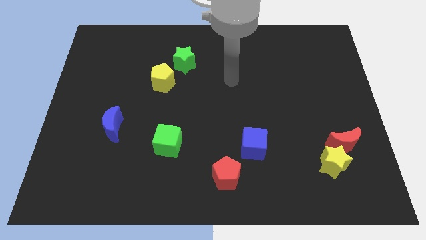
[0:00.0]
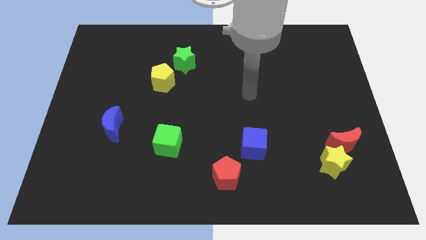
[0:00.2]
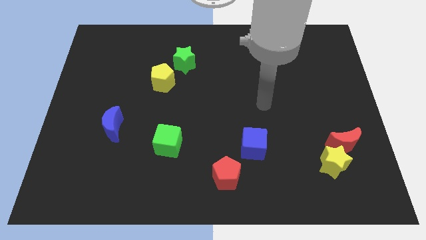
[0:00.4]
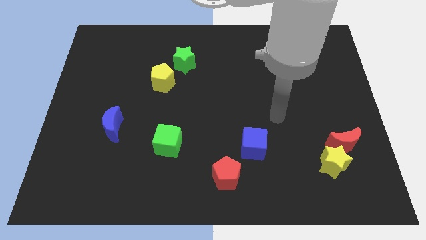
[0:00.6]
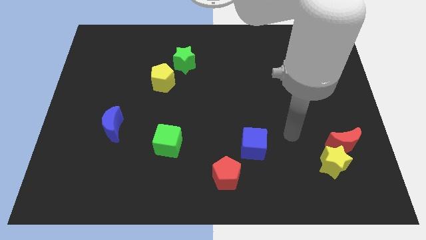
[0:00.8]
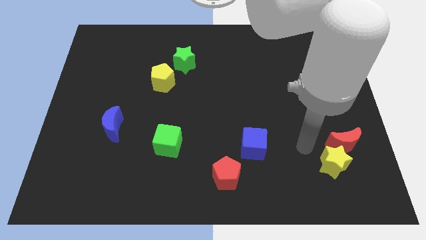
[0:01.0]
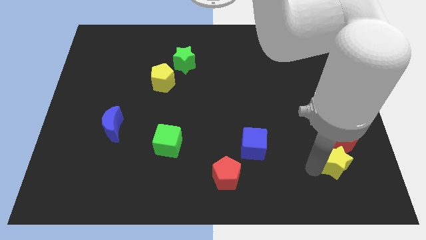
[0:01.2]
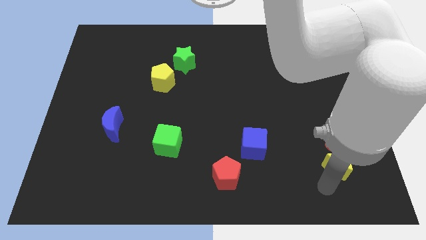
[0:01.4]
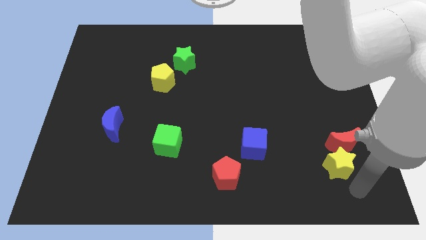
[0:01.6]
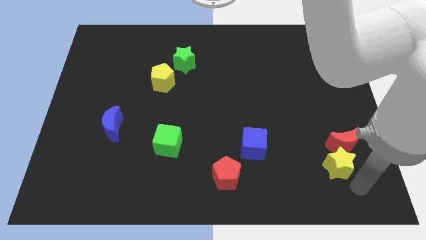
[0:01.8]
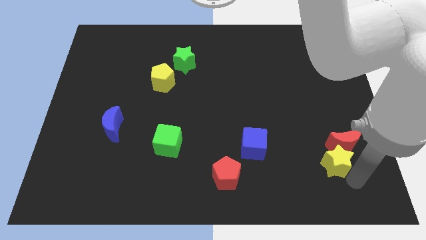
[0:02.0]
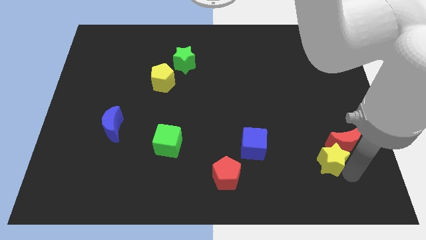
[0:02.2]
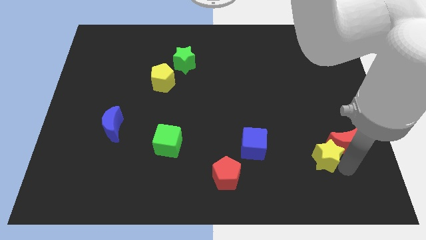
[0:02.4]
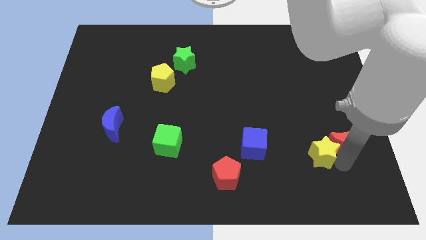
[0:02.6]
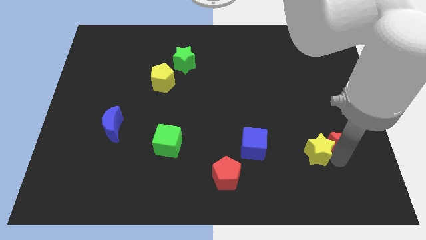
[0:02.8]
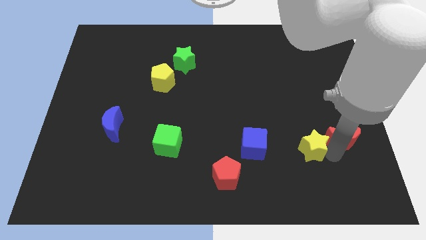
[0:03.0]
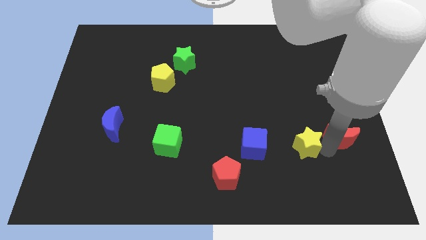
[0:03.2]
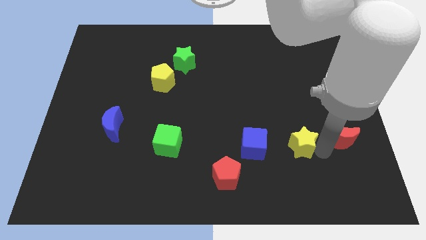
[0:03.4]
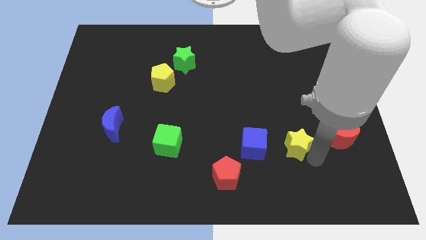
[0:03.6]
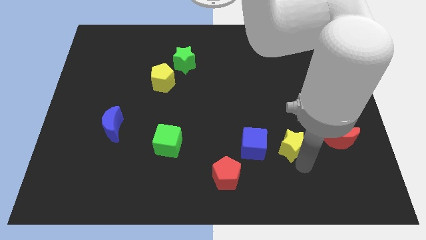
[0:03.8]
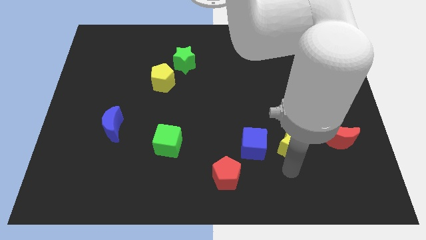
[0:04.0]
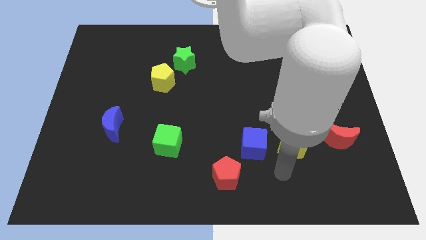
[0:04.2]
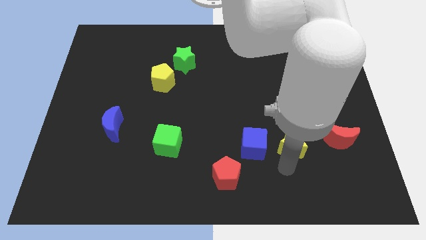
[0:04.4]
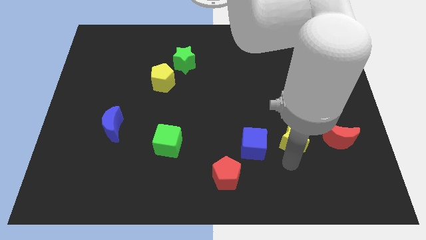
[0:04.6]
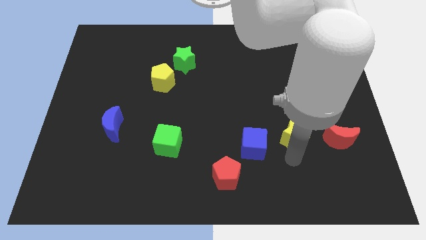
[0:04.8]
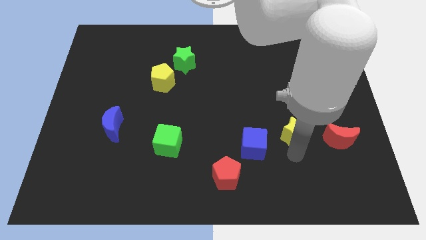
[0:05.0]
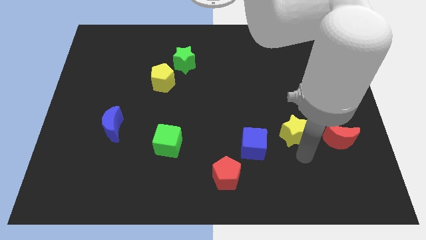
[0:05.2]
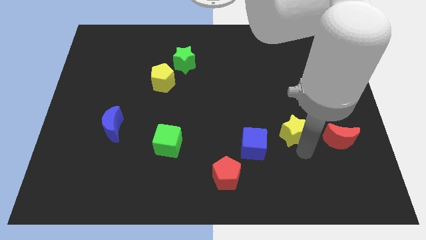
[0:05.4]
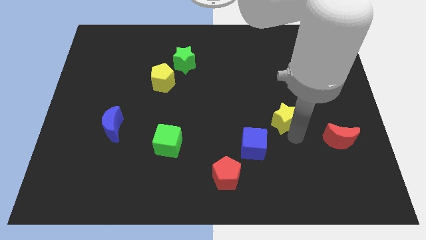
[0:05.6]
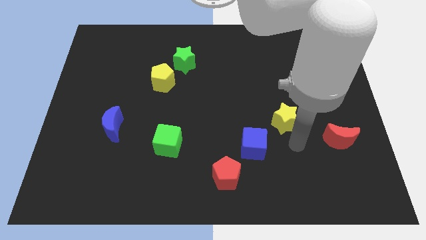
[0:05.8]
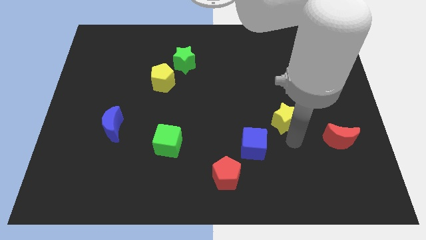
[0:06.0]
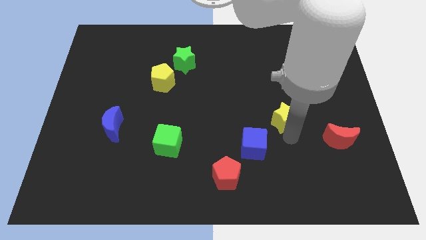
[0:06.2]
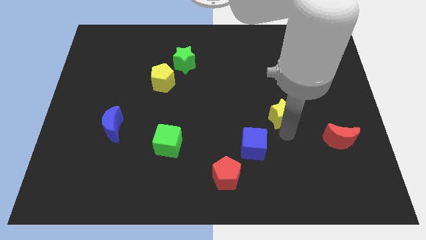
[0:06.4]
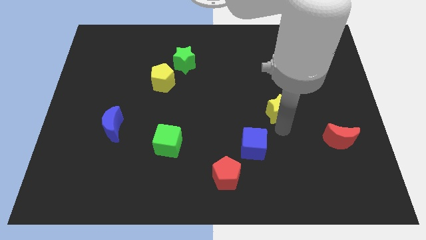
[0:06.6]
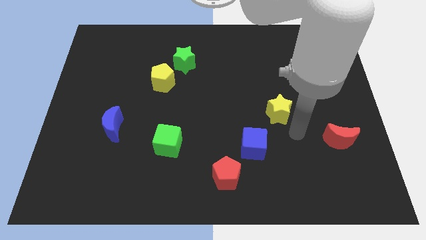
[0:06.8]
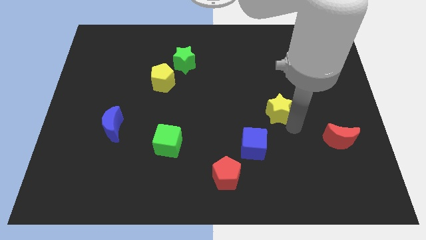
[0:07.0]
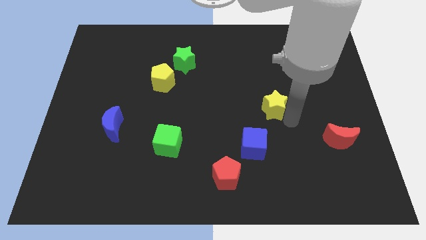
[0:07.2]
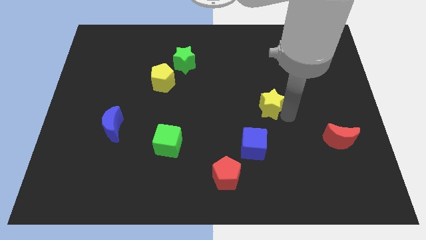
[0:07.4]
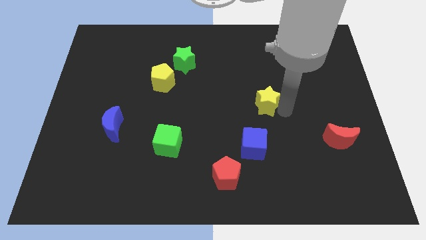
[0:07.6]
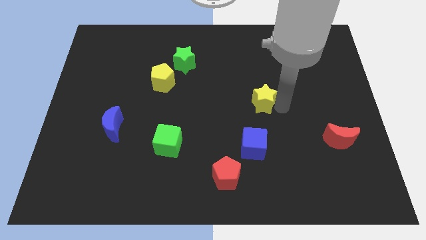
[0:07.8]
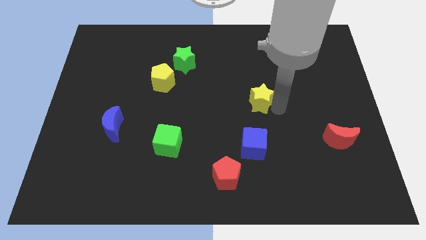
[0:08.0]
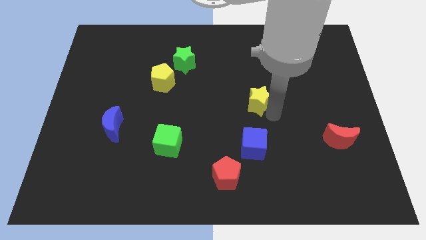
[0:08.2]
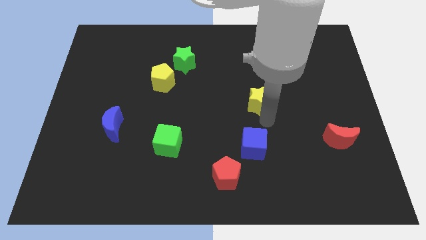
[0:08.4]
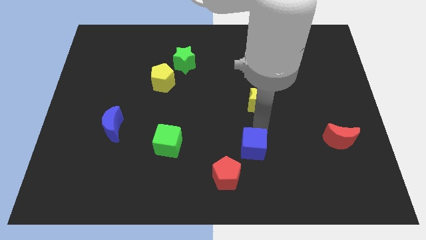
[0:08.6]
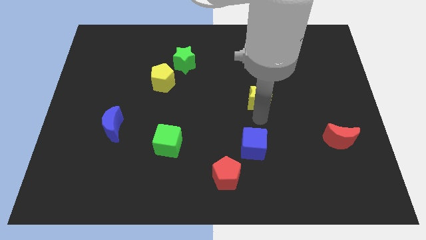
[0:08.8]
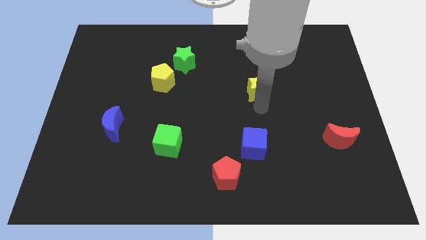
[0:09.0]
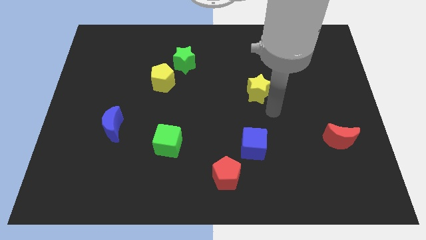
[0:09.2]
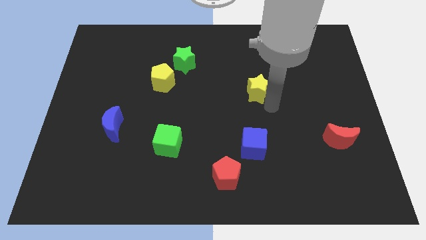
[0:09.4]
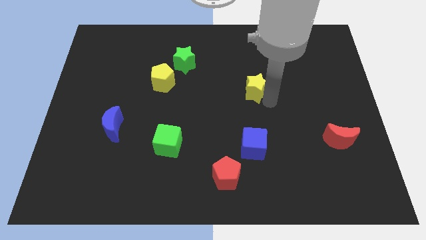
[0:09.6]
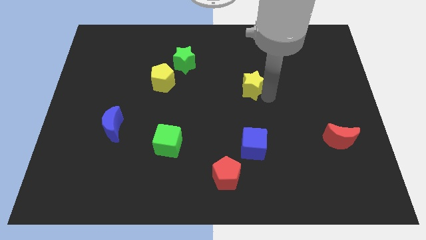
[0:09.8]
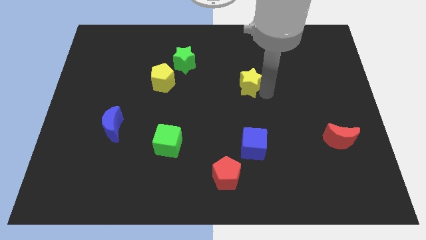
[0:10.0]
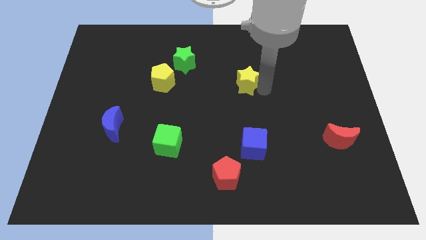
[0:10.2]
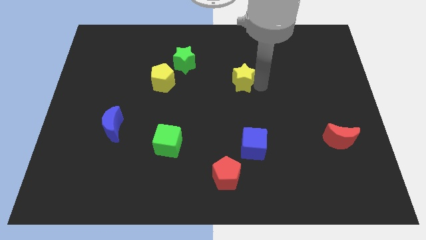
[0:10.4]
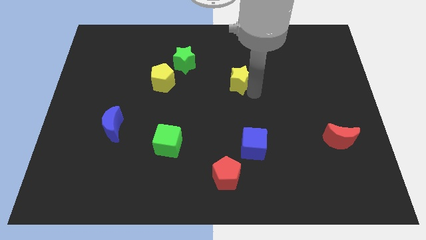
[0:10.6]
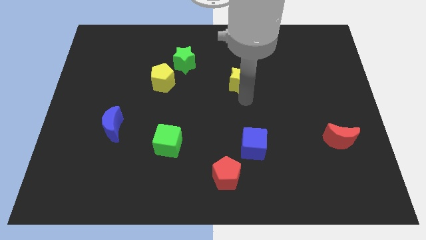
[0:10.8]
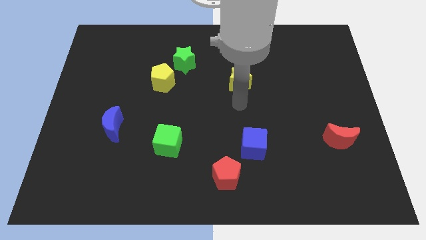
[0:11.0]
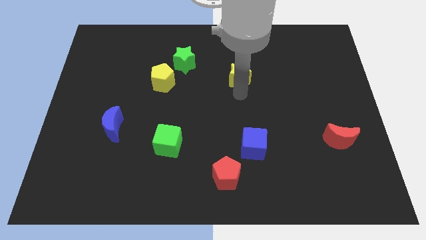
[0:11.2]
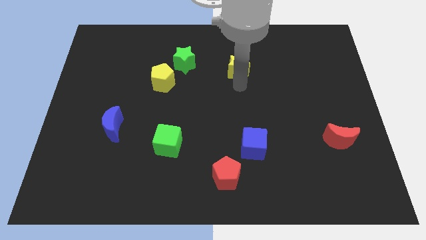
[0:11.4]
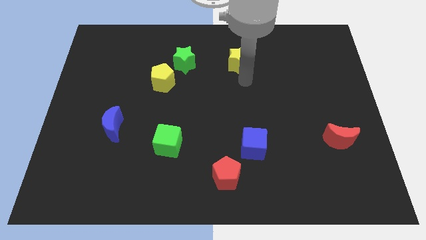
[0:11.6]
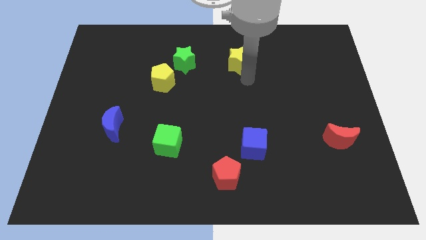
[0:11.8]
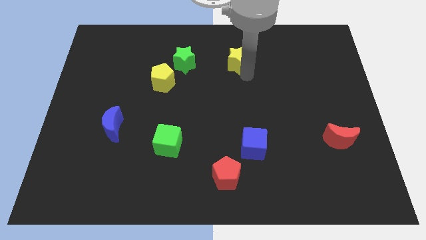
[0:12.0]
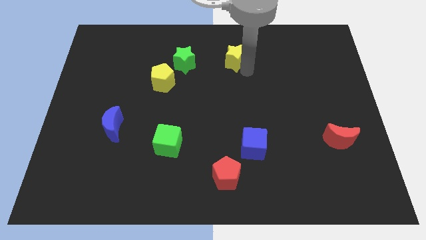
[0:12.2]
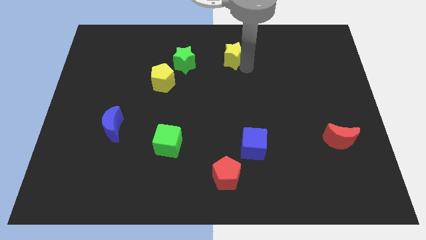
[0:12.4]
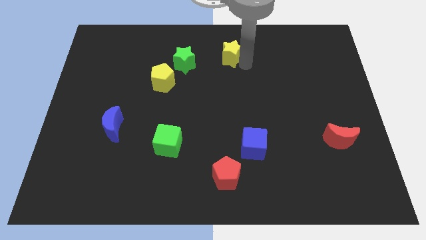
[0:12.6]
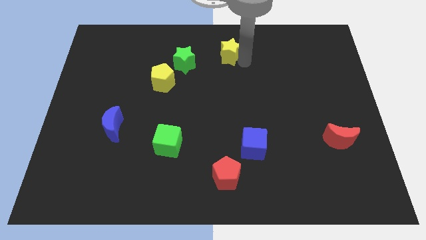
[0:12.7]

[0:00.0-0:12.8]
move the yellow star to the towards your base
